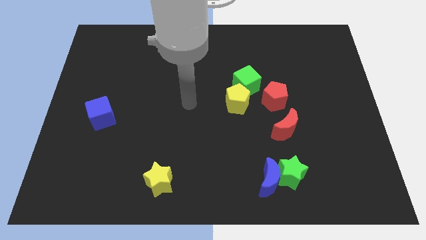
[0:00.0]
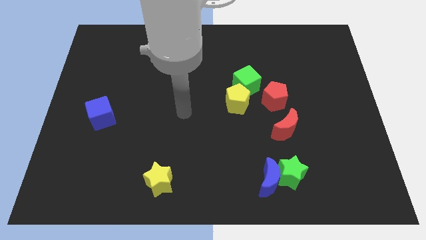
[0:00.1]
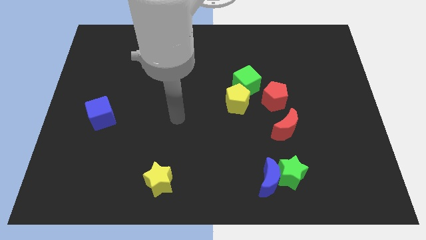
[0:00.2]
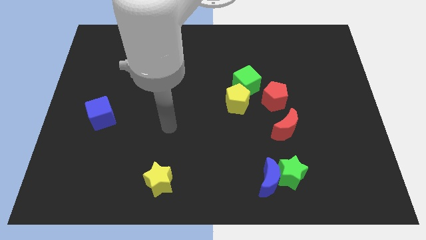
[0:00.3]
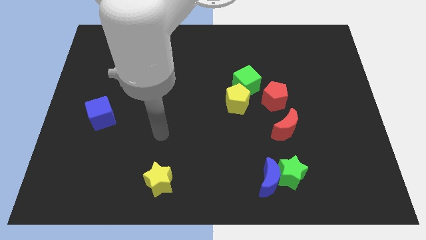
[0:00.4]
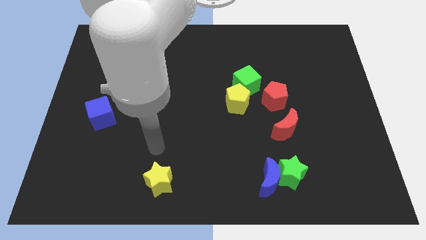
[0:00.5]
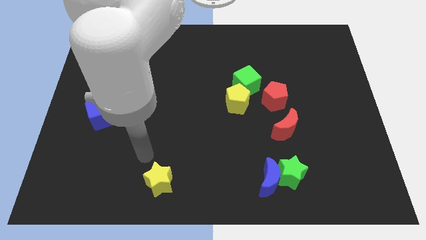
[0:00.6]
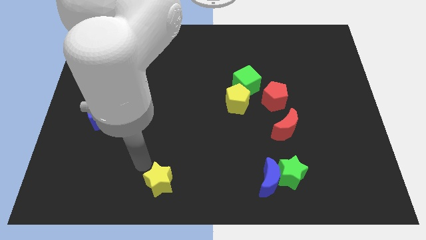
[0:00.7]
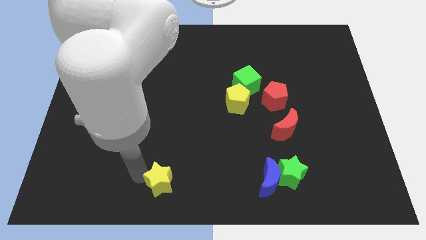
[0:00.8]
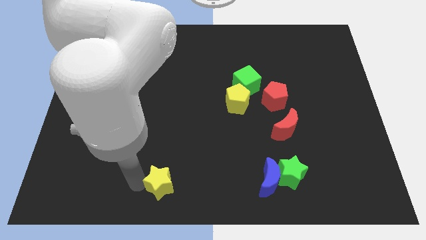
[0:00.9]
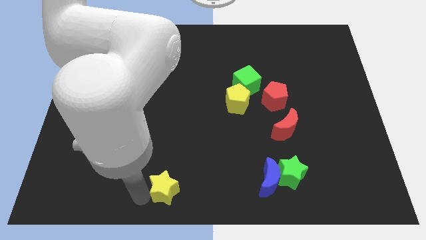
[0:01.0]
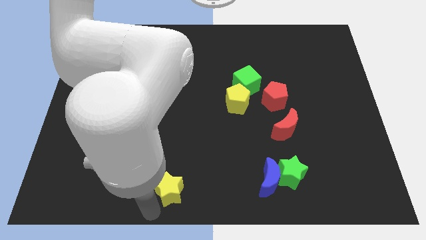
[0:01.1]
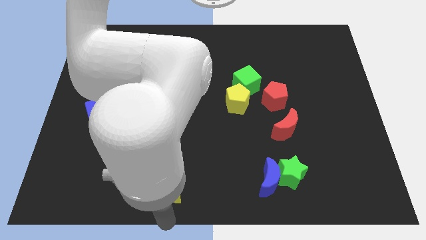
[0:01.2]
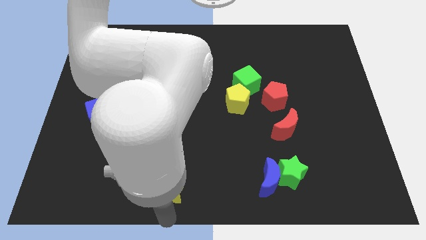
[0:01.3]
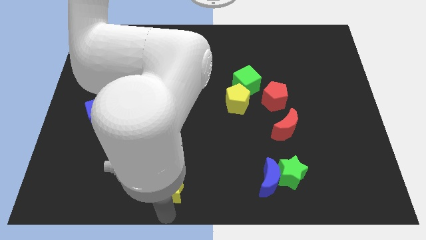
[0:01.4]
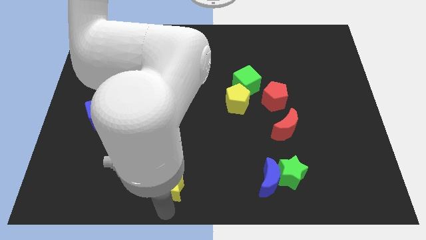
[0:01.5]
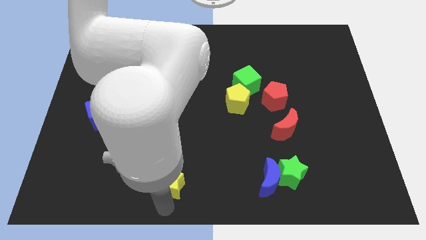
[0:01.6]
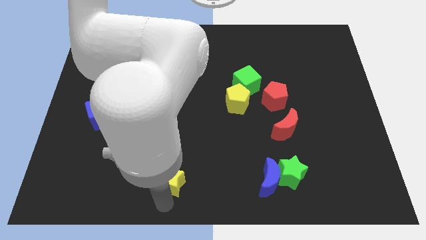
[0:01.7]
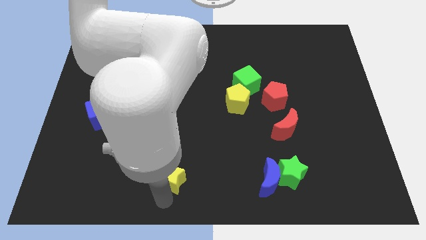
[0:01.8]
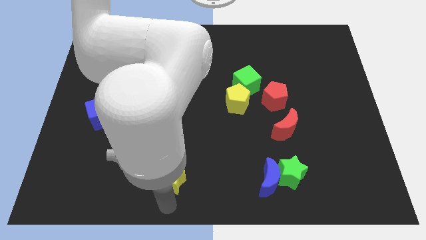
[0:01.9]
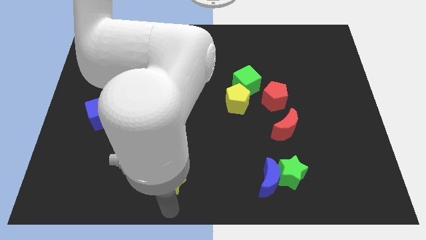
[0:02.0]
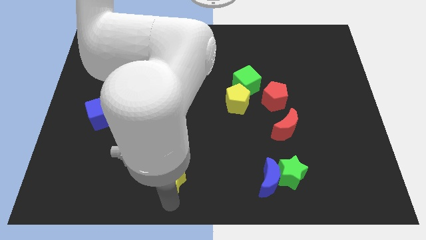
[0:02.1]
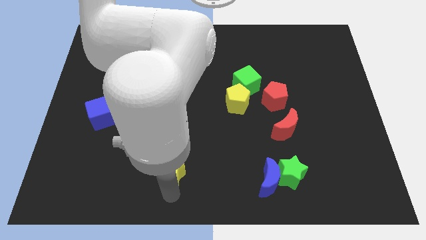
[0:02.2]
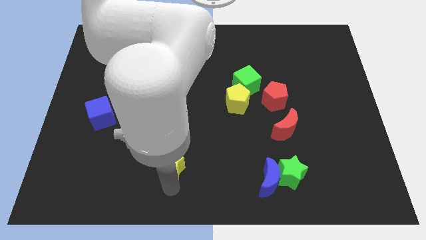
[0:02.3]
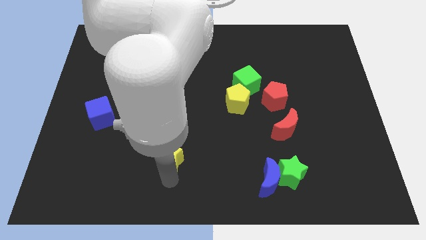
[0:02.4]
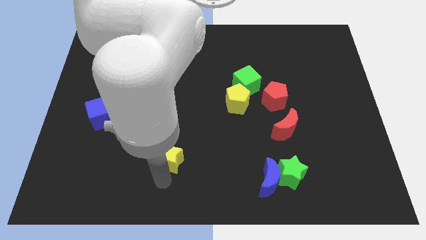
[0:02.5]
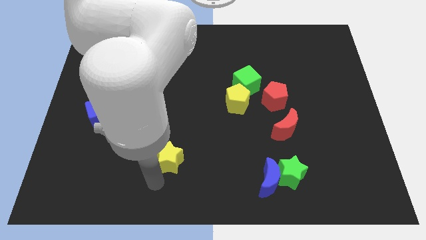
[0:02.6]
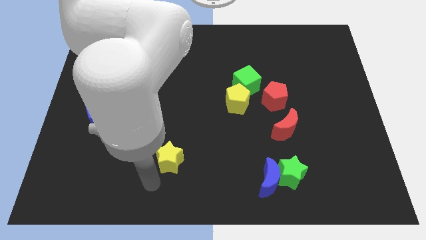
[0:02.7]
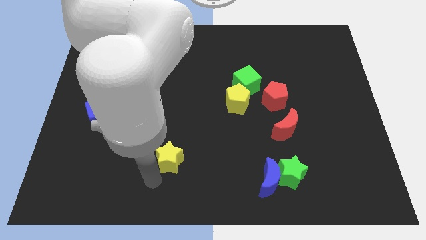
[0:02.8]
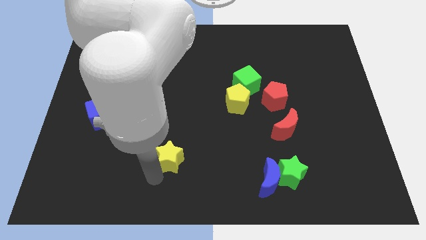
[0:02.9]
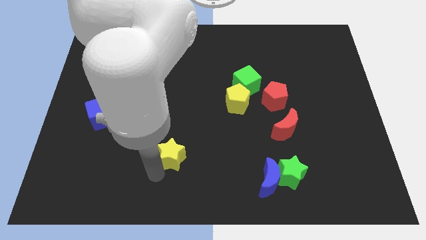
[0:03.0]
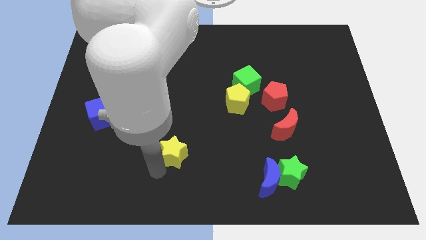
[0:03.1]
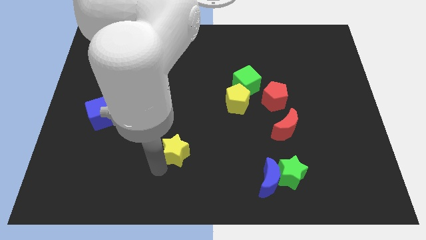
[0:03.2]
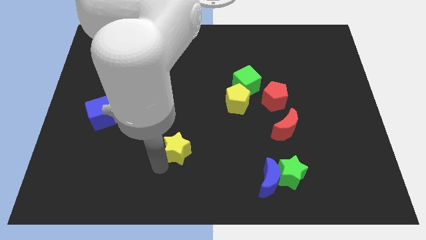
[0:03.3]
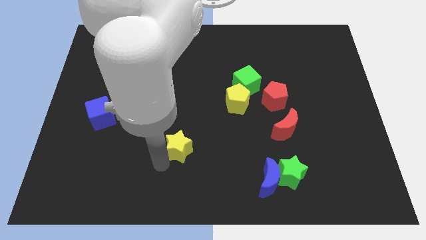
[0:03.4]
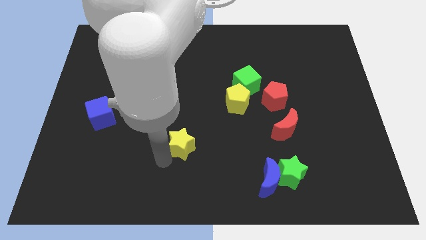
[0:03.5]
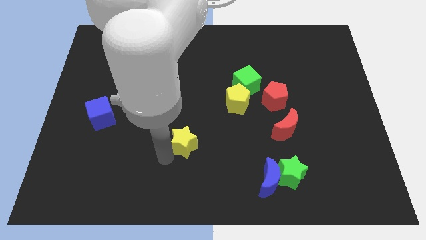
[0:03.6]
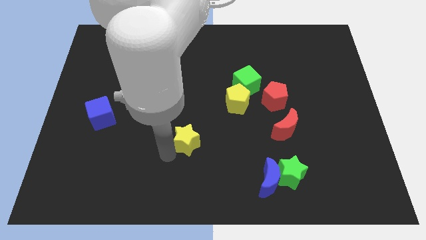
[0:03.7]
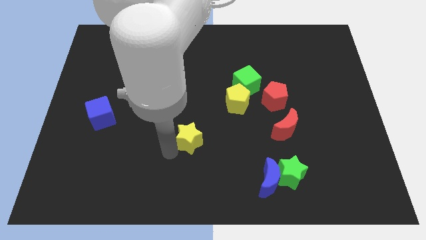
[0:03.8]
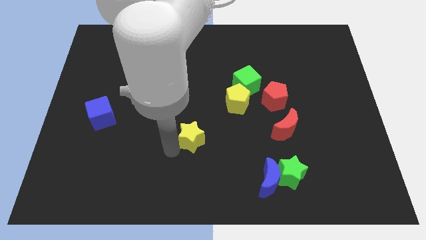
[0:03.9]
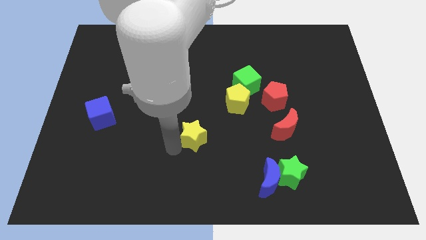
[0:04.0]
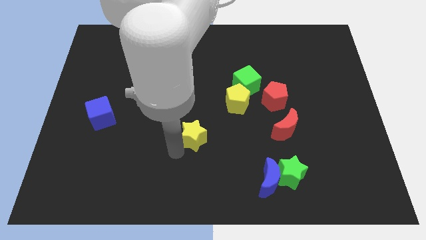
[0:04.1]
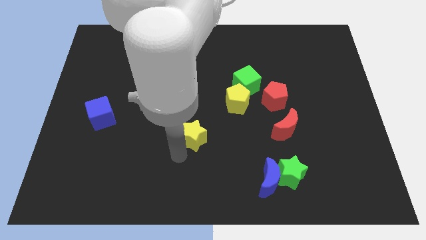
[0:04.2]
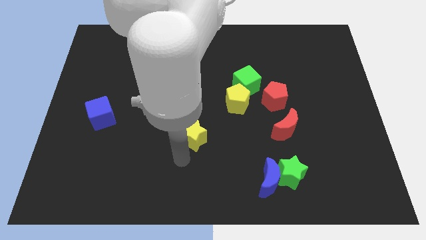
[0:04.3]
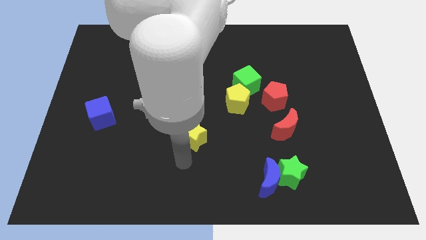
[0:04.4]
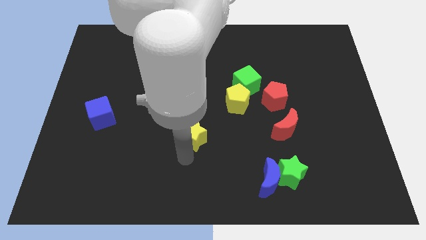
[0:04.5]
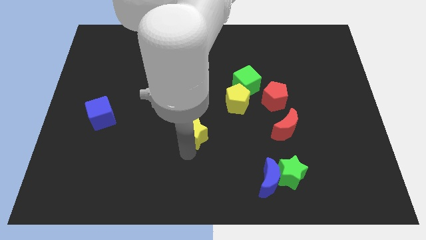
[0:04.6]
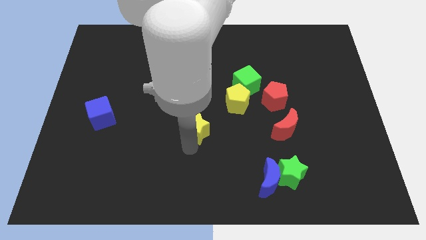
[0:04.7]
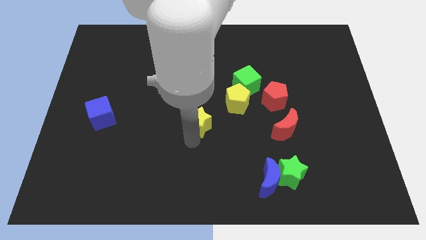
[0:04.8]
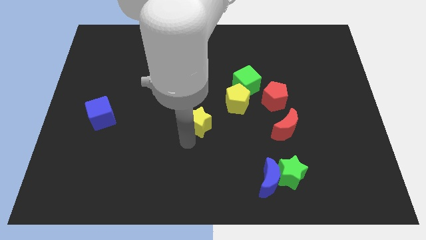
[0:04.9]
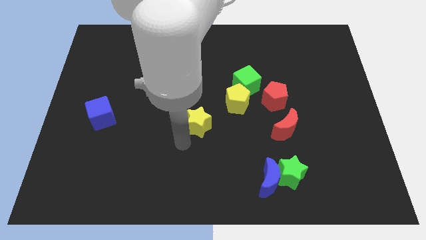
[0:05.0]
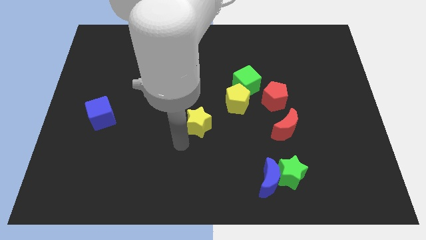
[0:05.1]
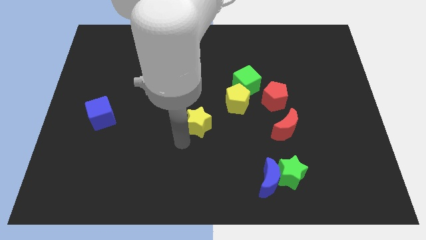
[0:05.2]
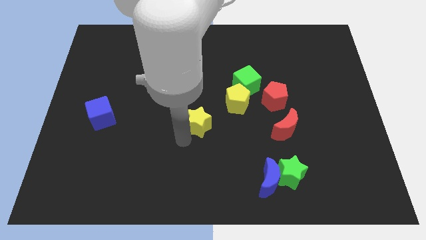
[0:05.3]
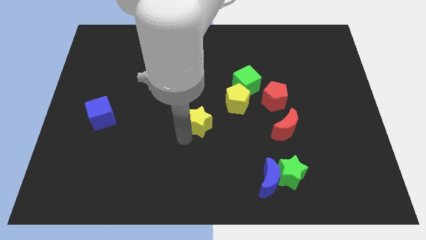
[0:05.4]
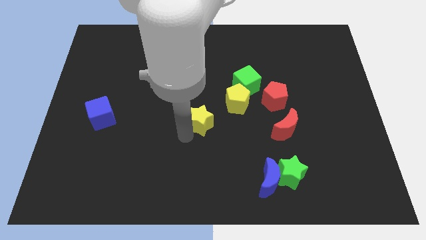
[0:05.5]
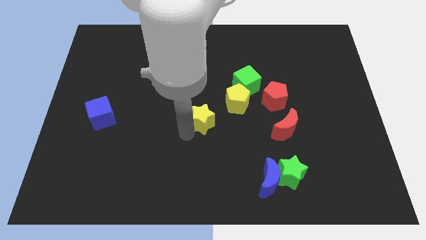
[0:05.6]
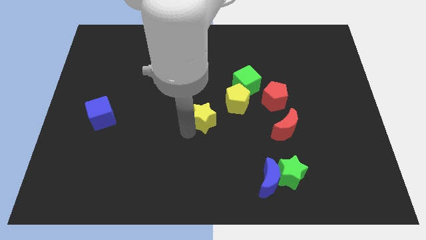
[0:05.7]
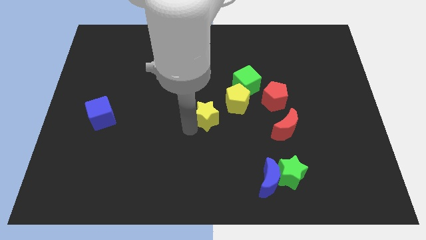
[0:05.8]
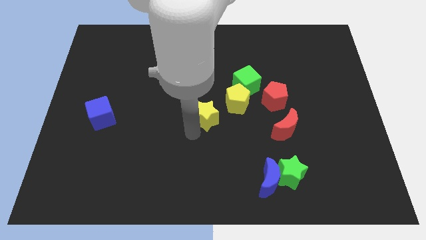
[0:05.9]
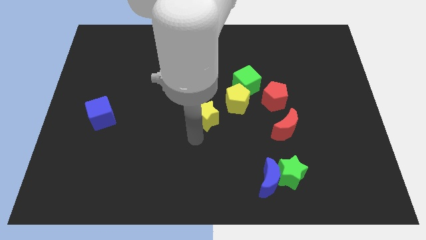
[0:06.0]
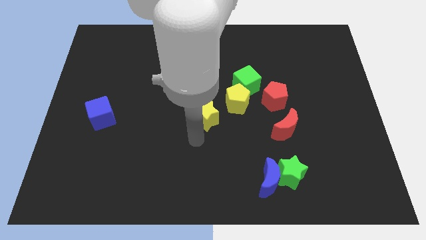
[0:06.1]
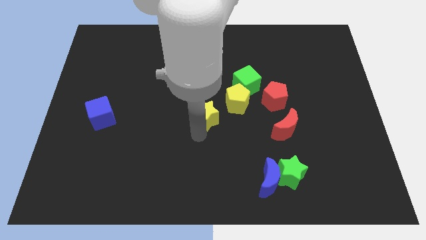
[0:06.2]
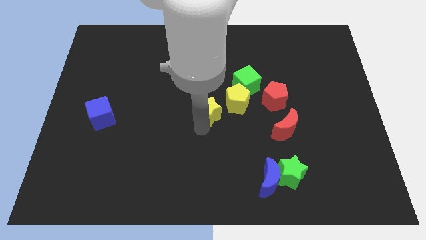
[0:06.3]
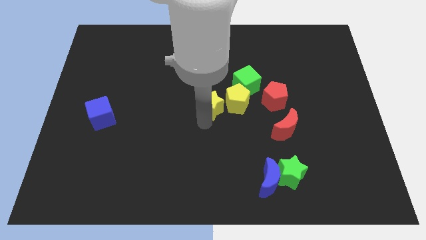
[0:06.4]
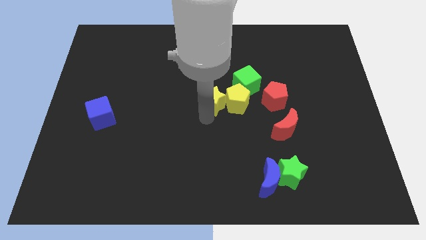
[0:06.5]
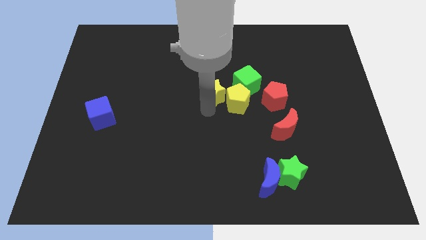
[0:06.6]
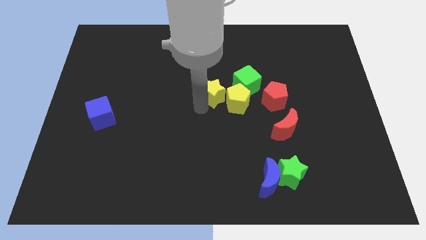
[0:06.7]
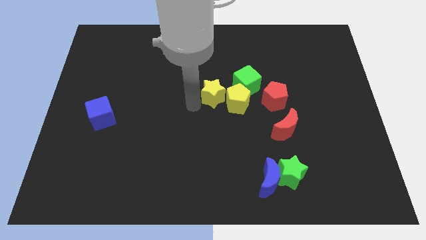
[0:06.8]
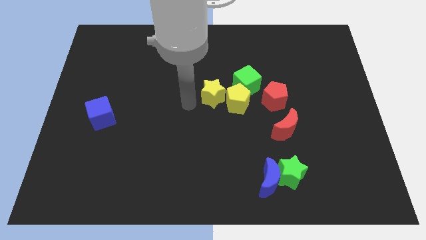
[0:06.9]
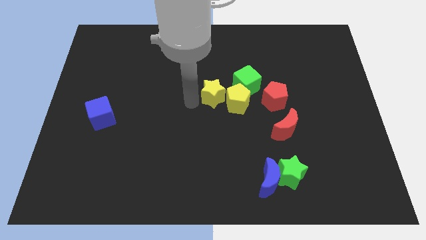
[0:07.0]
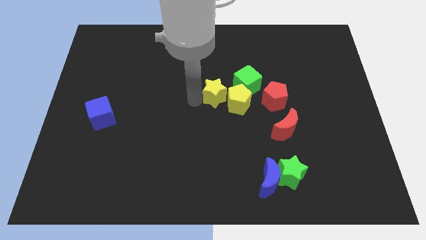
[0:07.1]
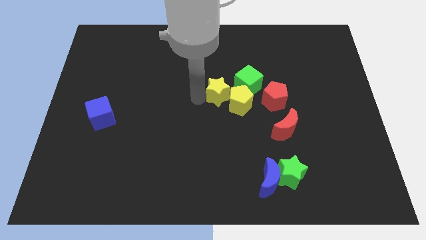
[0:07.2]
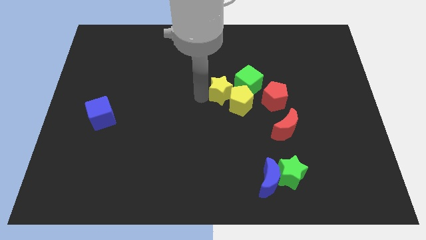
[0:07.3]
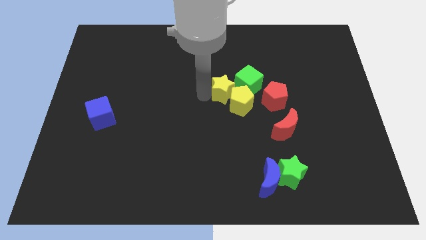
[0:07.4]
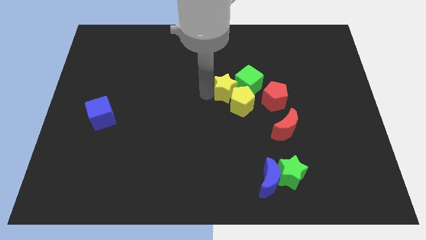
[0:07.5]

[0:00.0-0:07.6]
slide the yellow star next to the green cube

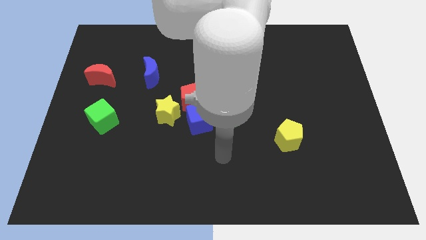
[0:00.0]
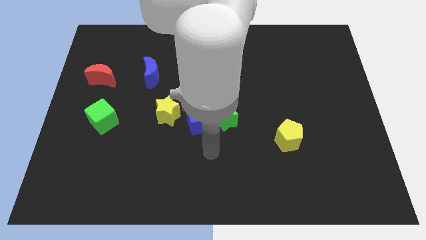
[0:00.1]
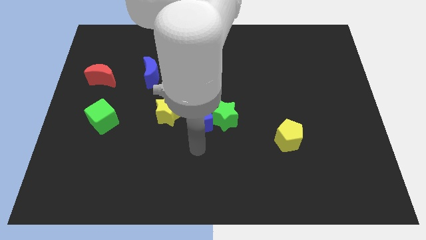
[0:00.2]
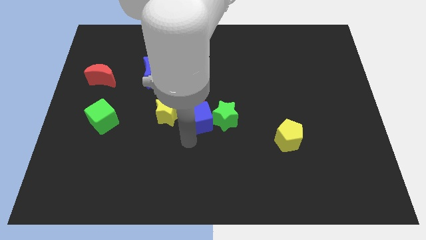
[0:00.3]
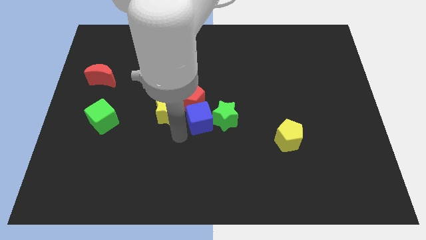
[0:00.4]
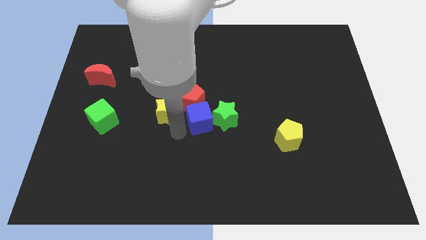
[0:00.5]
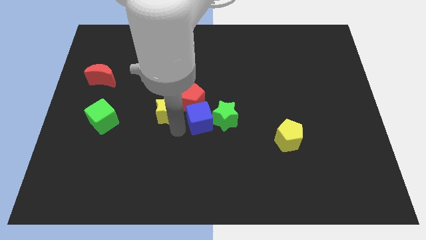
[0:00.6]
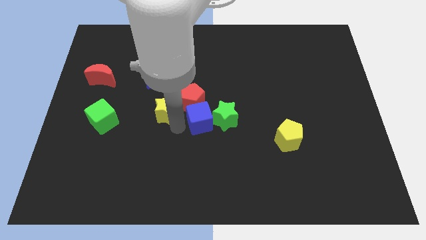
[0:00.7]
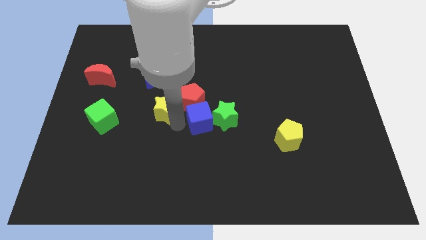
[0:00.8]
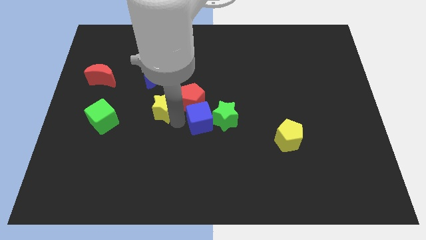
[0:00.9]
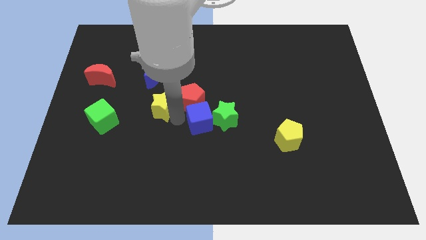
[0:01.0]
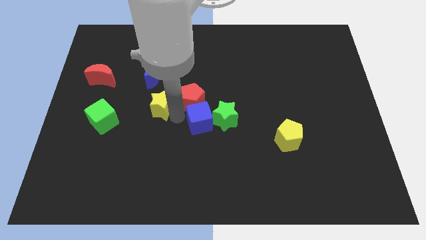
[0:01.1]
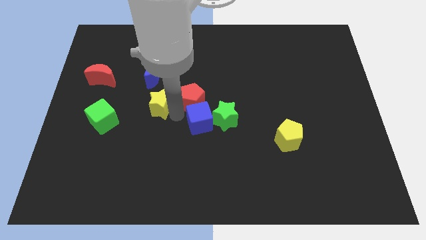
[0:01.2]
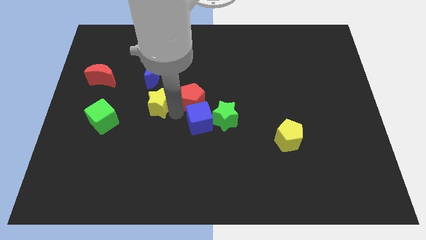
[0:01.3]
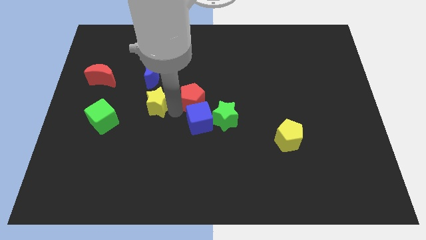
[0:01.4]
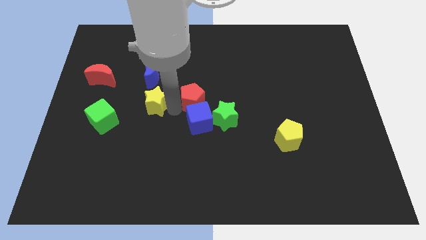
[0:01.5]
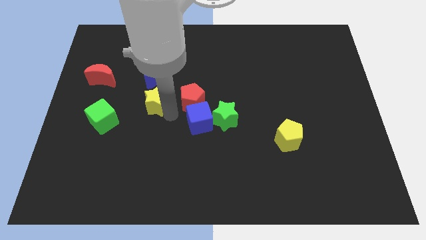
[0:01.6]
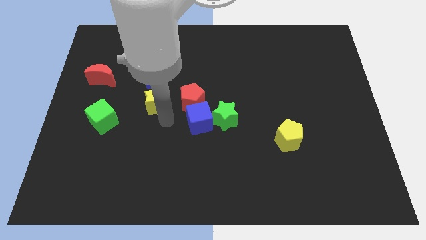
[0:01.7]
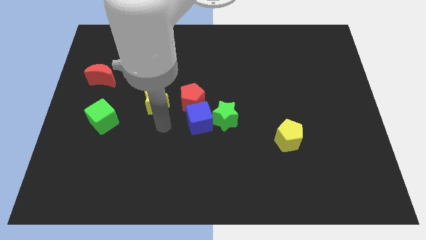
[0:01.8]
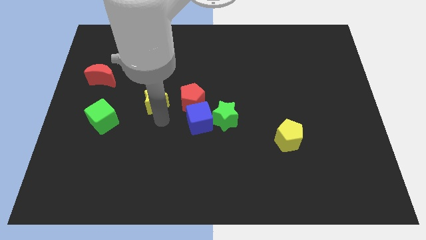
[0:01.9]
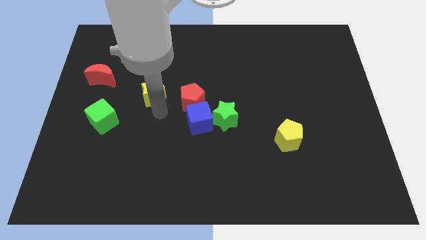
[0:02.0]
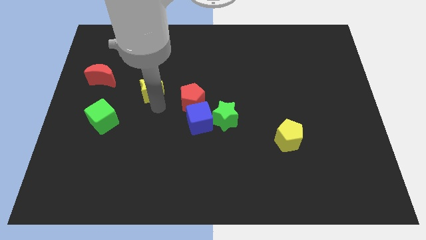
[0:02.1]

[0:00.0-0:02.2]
move the yellow star to the blue moon
